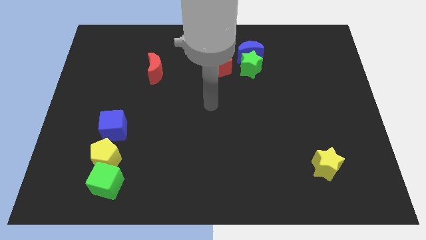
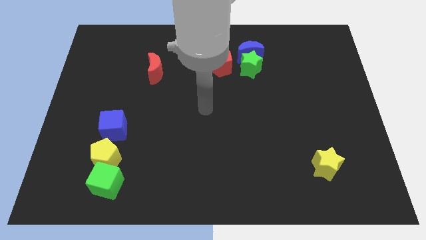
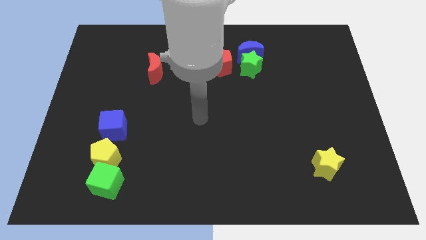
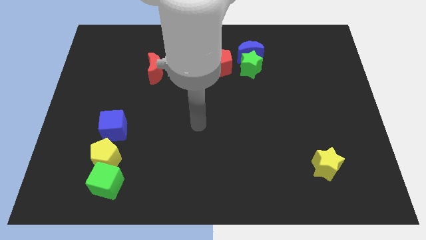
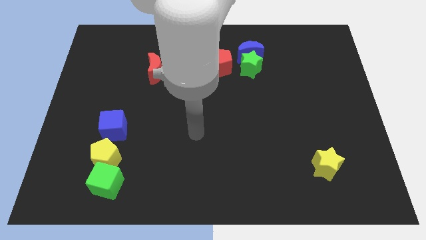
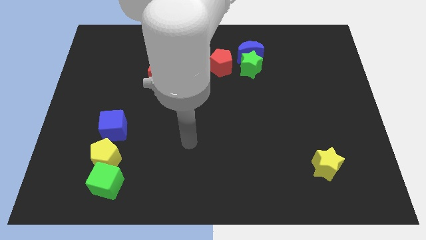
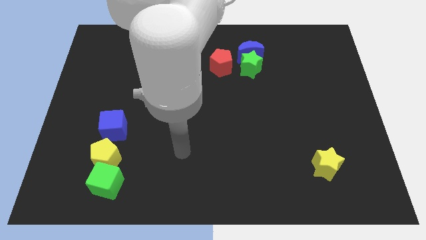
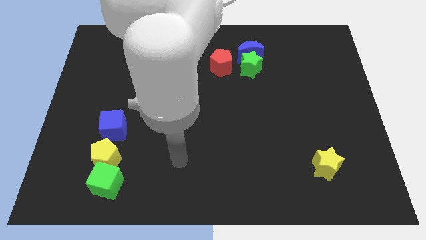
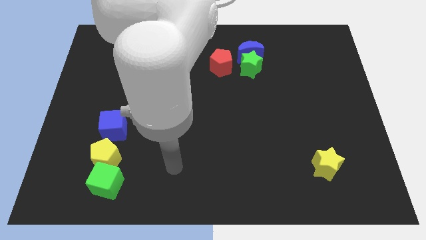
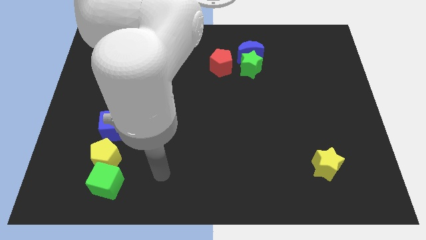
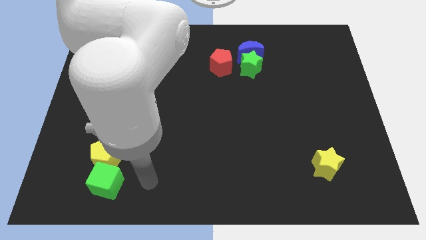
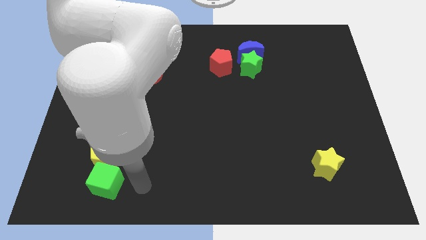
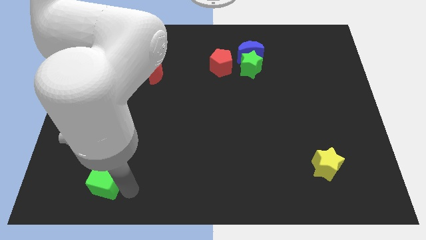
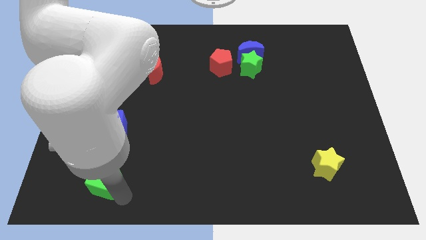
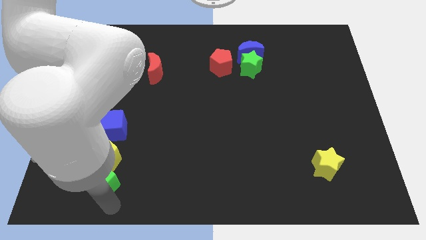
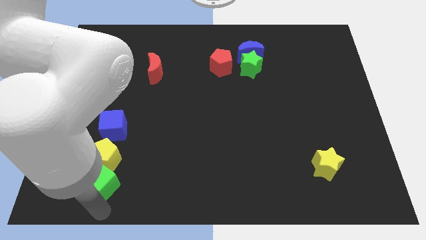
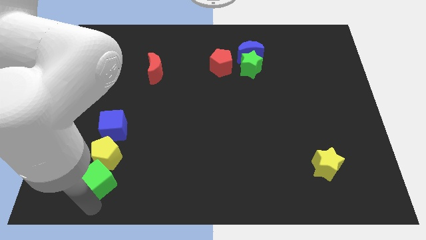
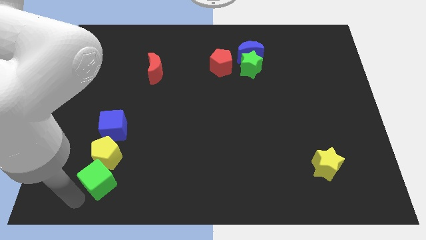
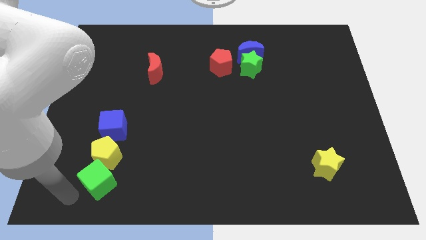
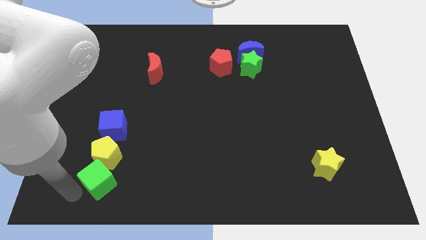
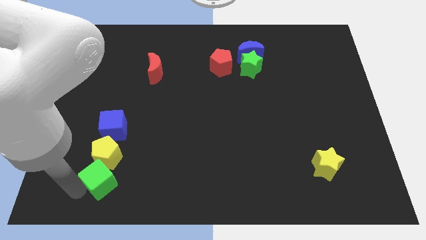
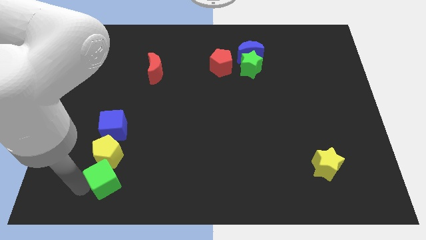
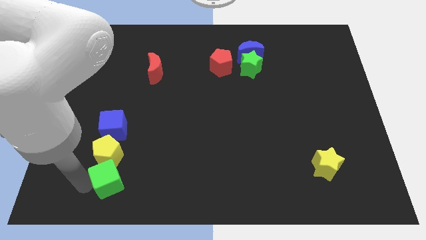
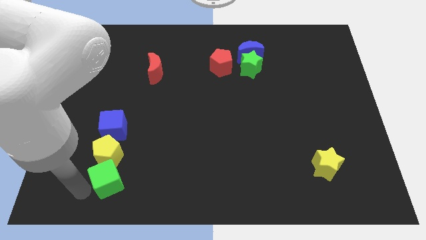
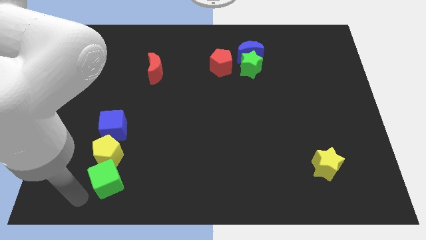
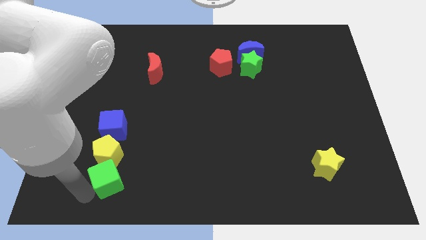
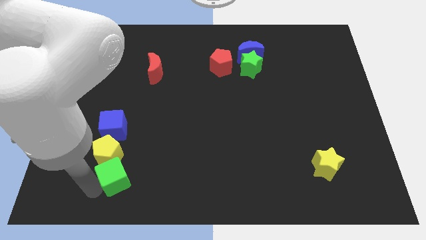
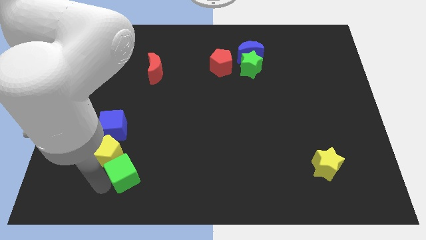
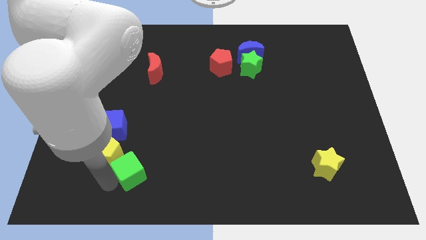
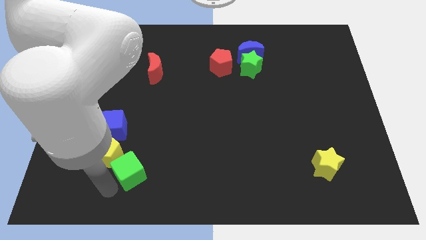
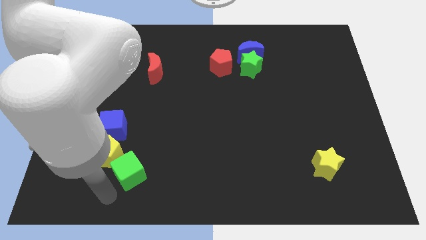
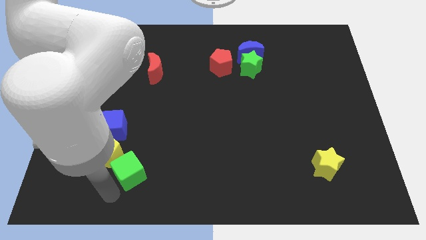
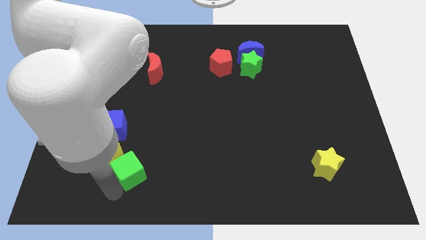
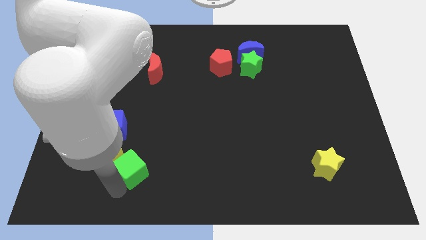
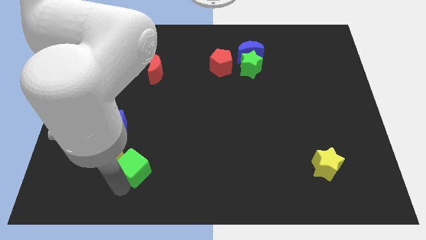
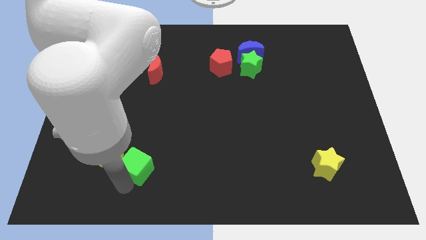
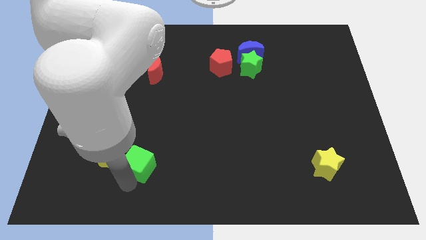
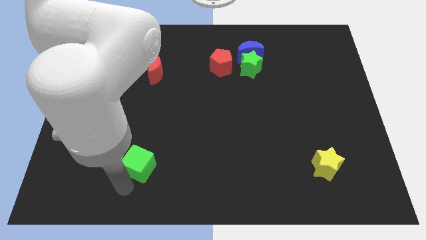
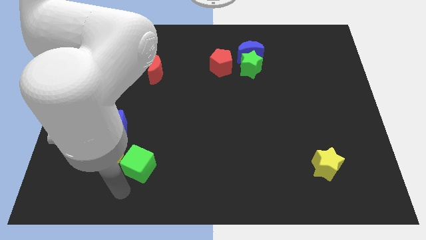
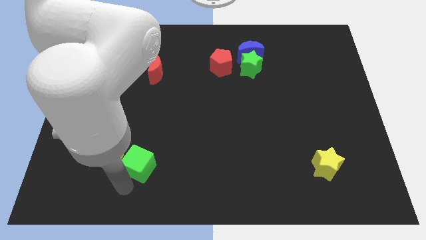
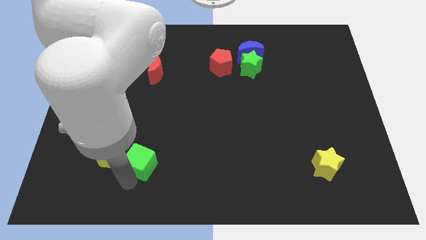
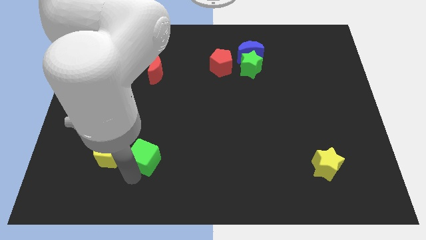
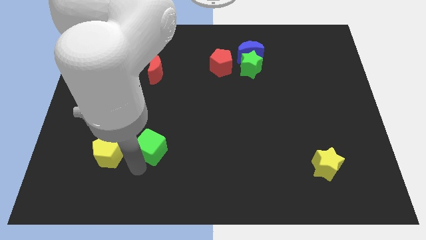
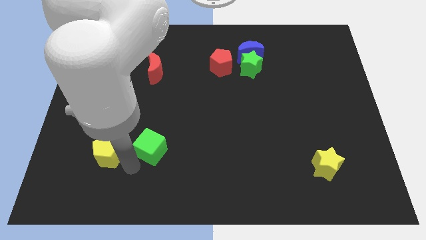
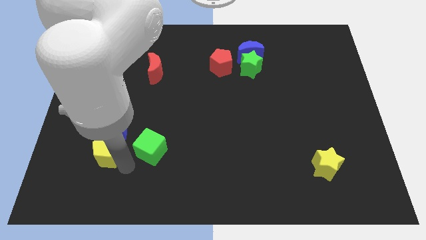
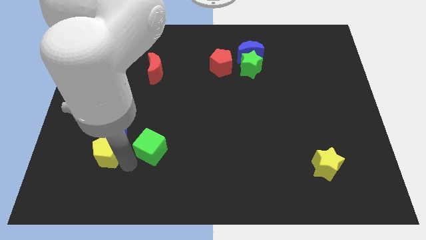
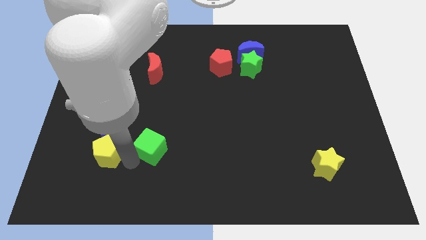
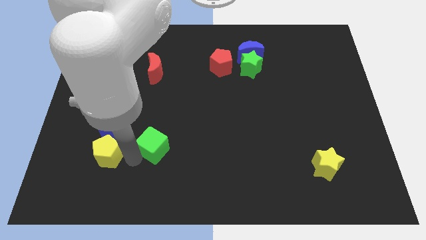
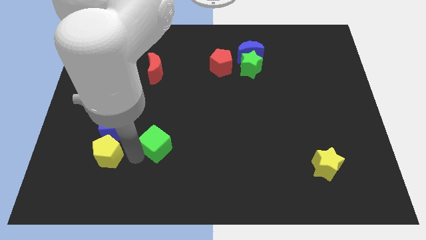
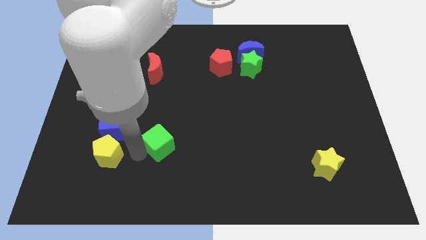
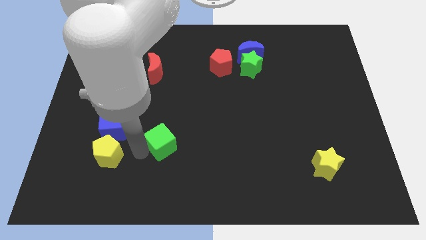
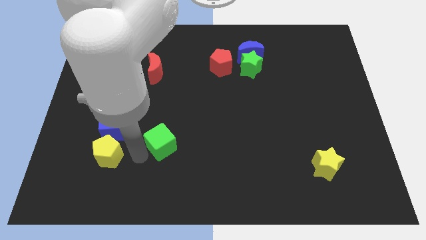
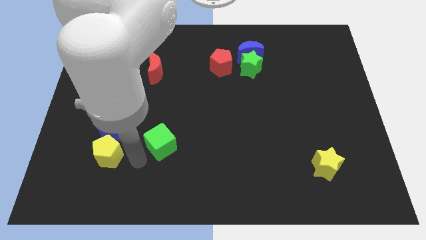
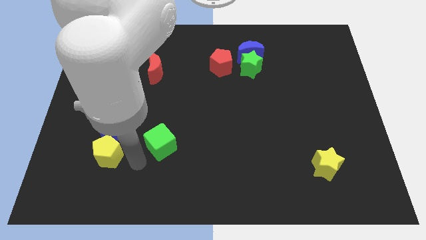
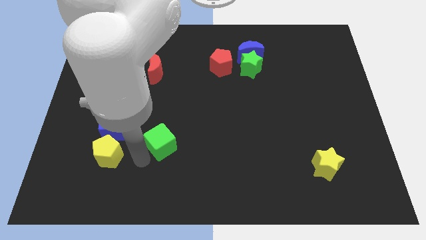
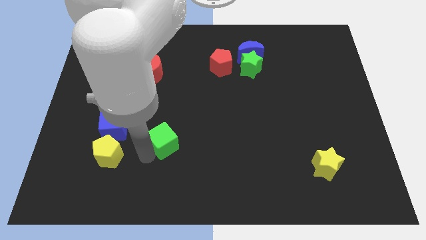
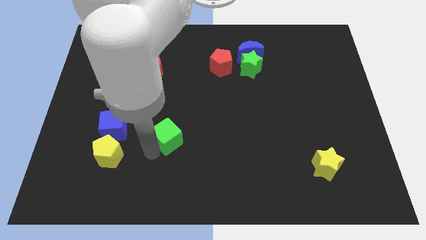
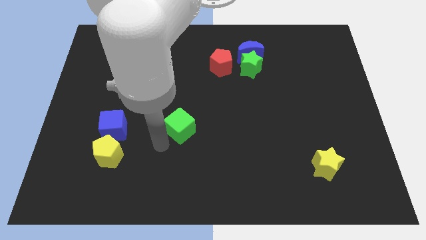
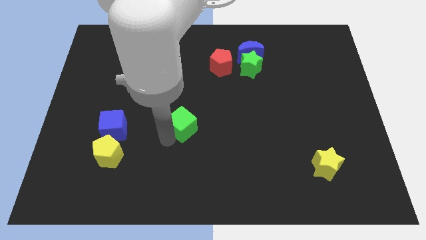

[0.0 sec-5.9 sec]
slide the green cube diagonally up and right

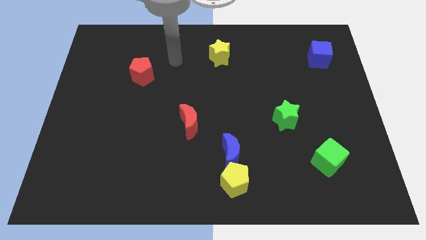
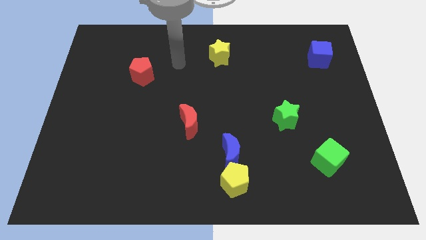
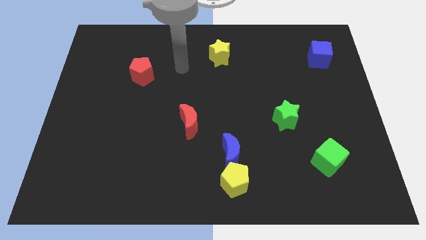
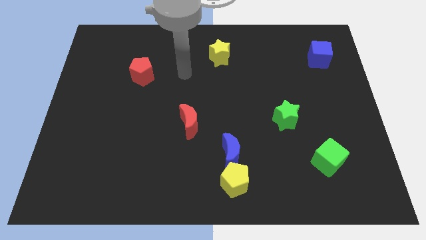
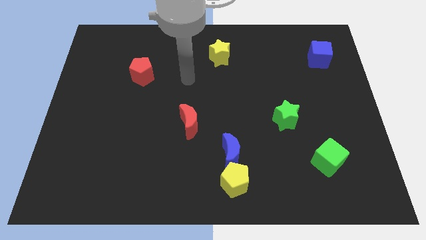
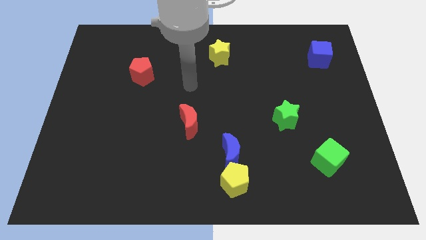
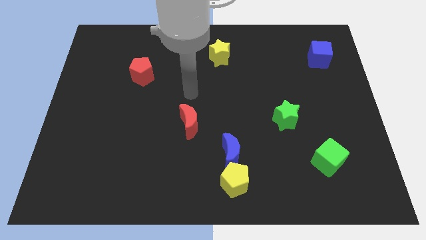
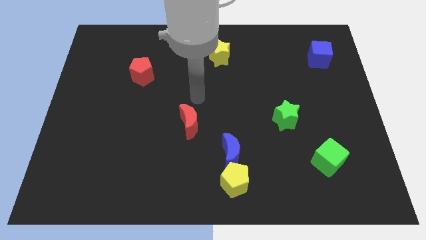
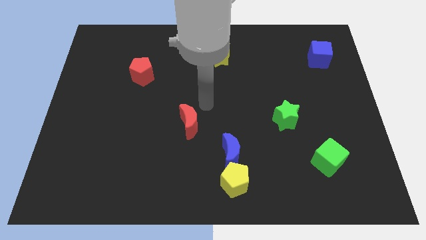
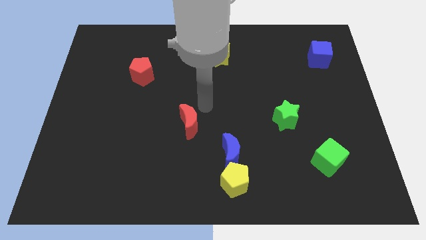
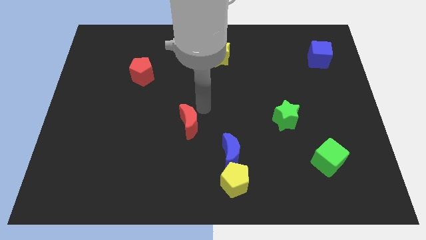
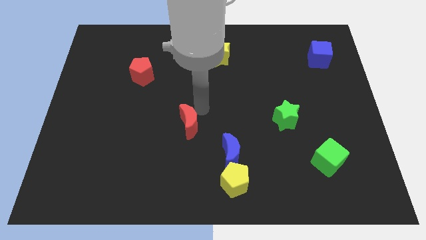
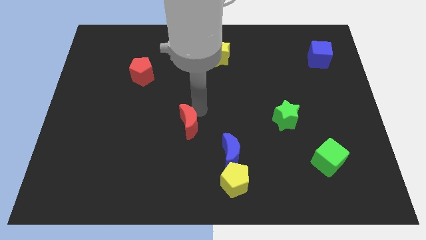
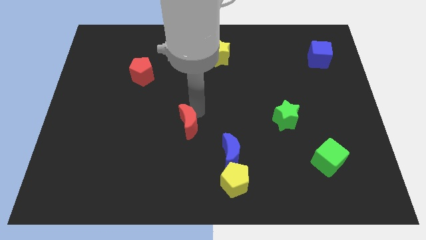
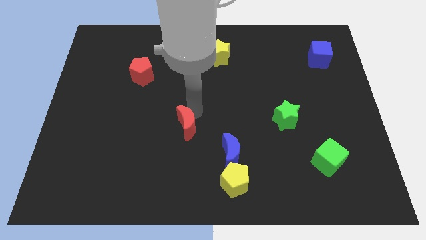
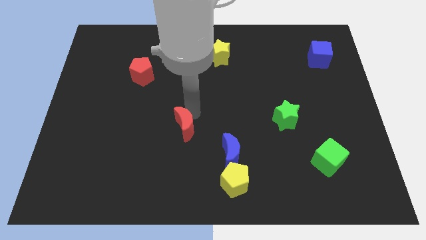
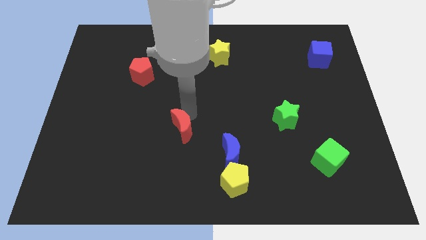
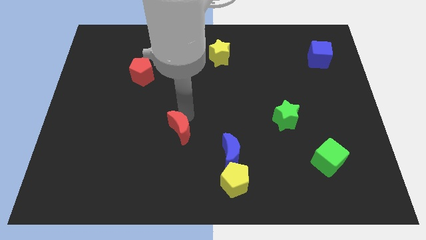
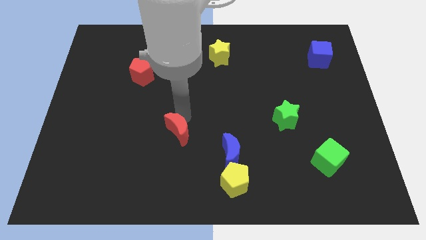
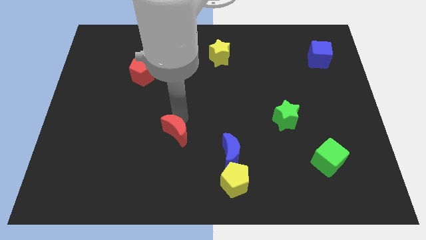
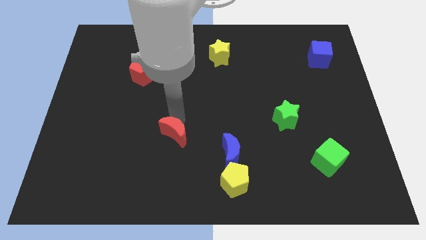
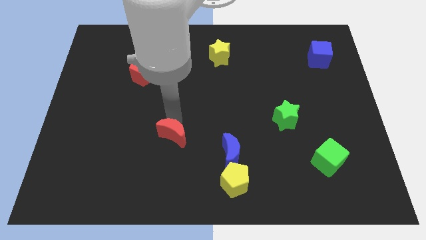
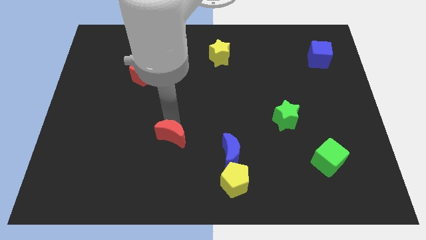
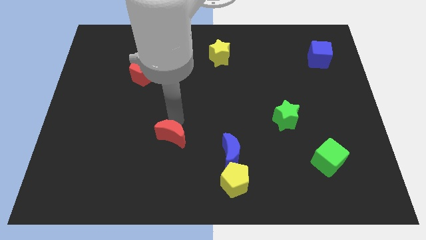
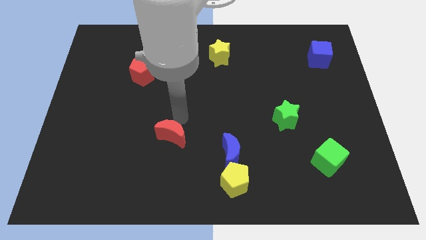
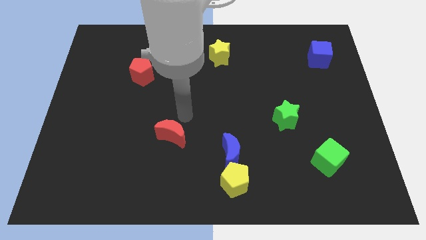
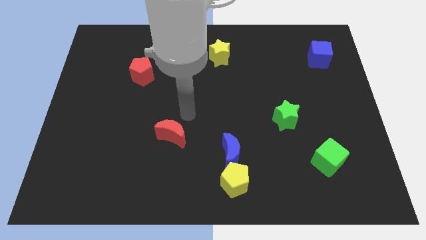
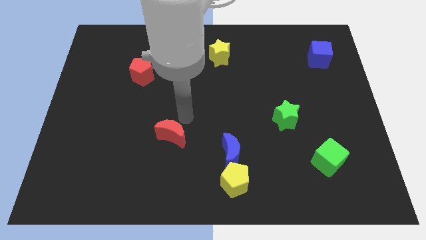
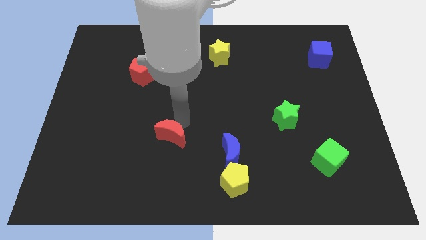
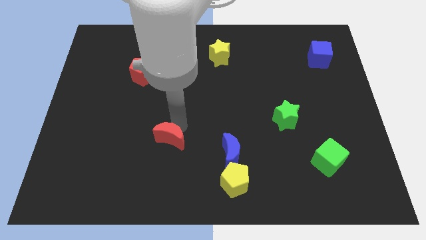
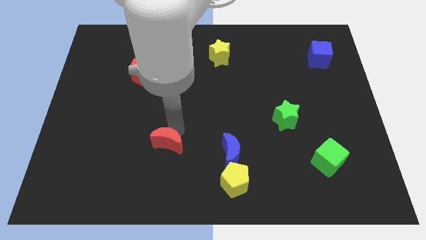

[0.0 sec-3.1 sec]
move the red moon a little bit diagonally down and to the left
